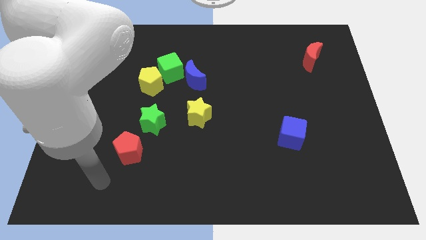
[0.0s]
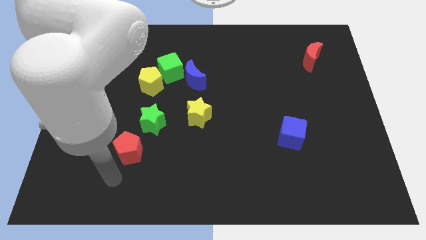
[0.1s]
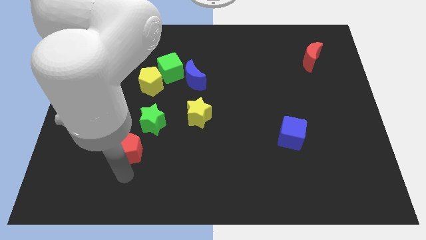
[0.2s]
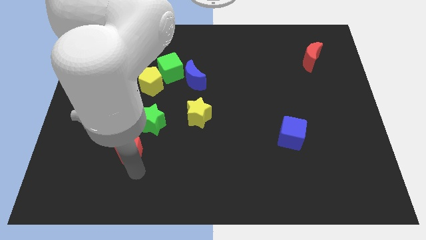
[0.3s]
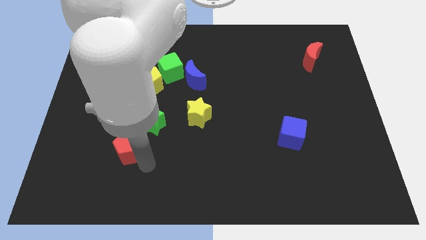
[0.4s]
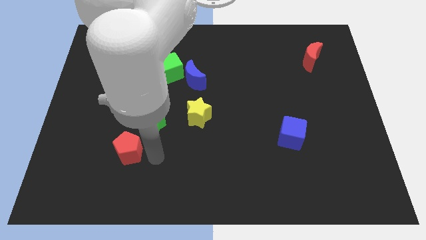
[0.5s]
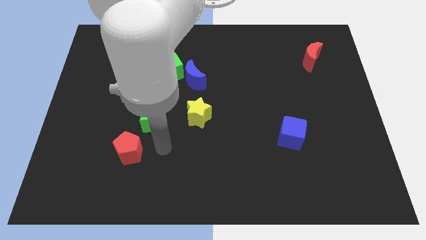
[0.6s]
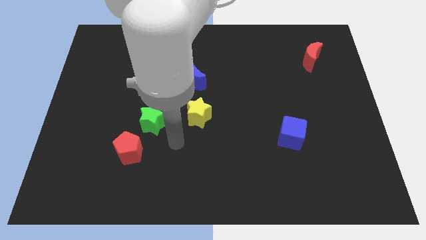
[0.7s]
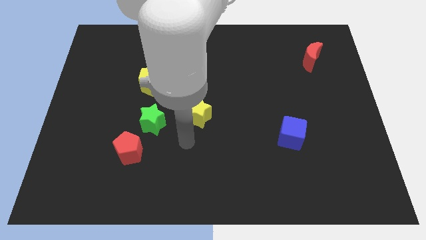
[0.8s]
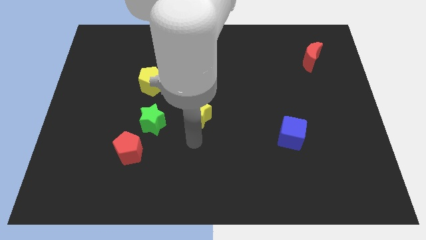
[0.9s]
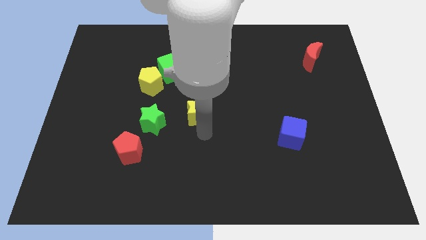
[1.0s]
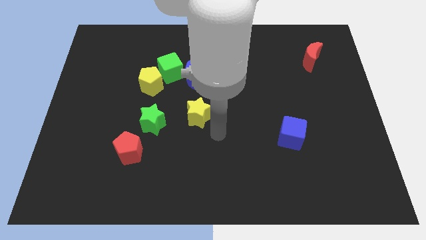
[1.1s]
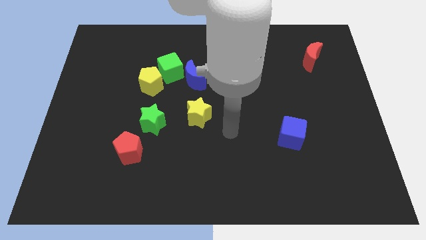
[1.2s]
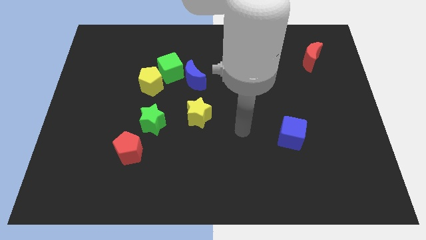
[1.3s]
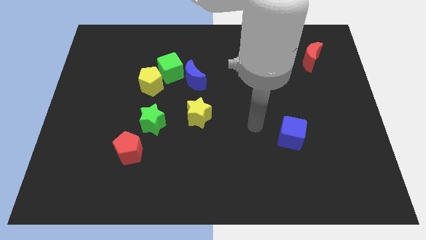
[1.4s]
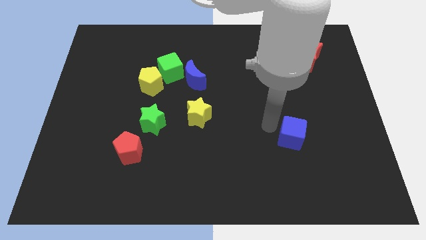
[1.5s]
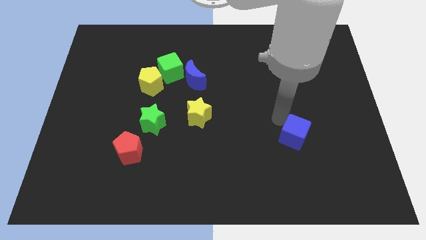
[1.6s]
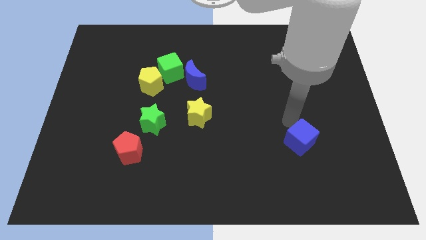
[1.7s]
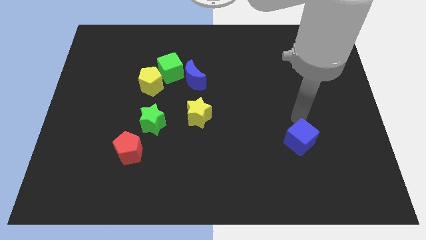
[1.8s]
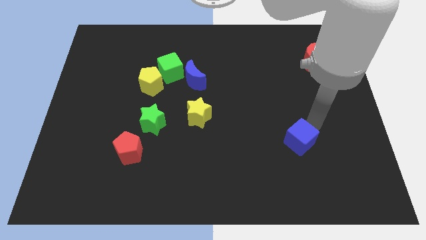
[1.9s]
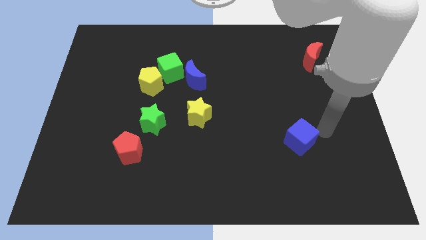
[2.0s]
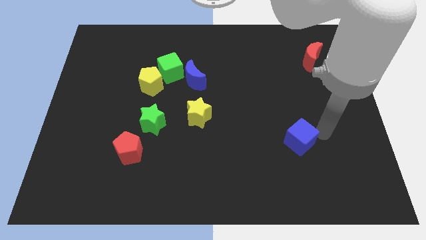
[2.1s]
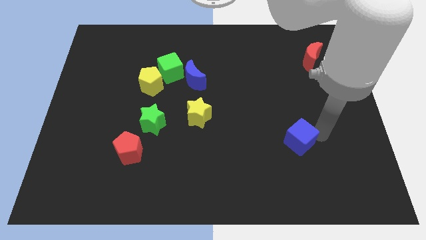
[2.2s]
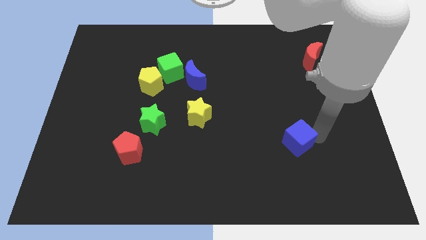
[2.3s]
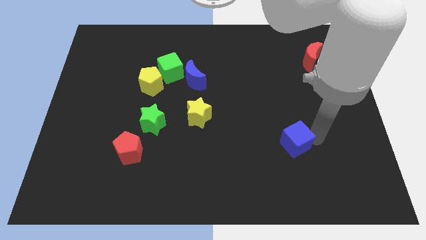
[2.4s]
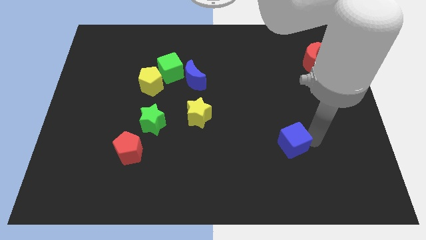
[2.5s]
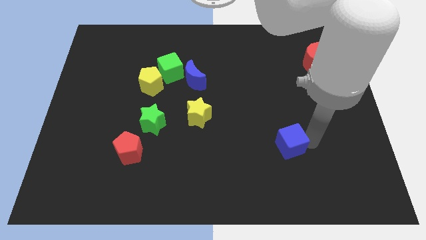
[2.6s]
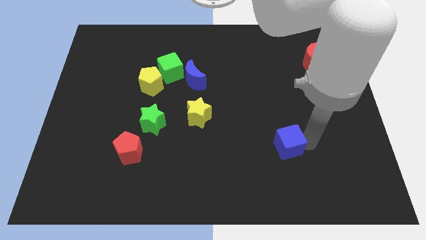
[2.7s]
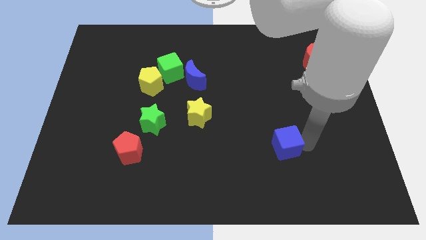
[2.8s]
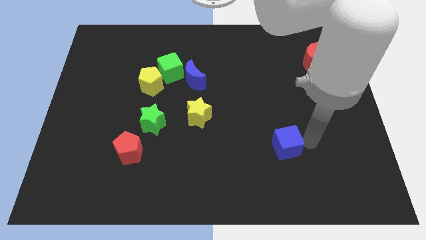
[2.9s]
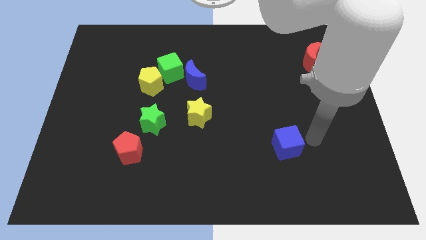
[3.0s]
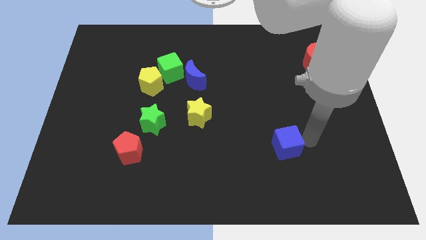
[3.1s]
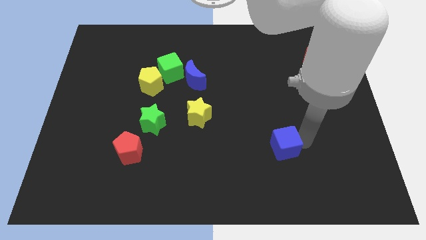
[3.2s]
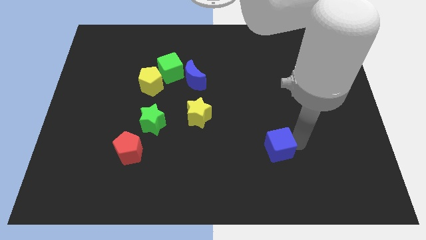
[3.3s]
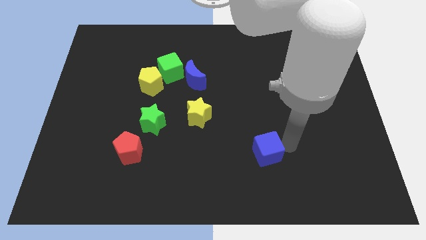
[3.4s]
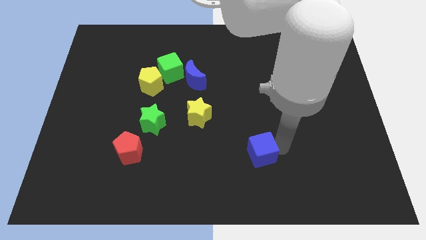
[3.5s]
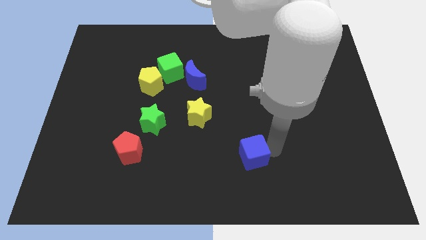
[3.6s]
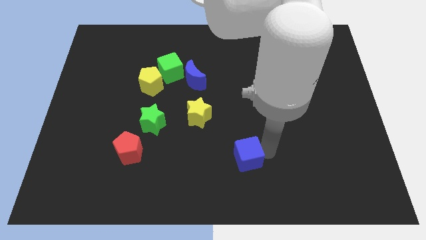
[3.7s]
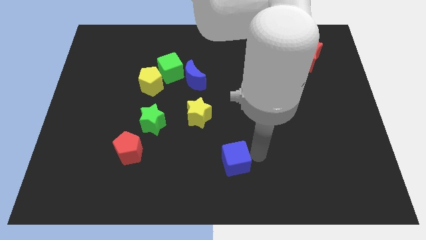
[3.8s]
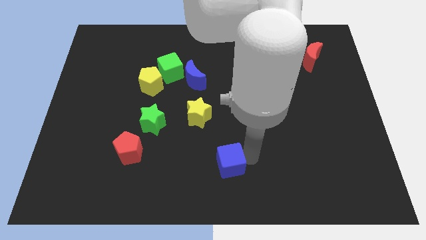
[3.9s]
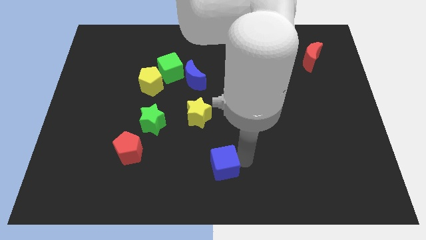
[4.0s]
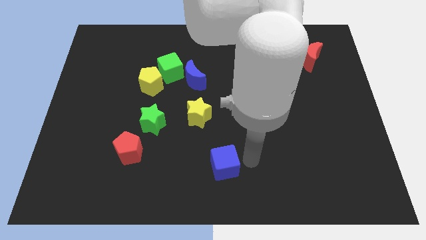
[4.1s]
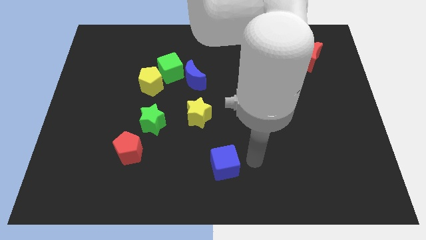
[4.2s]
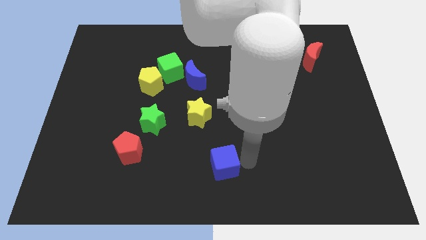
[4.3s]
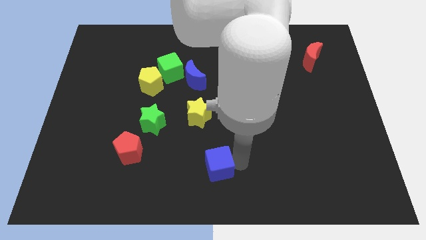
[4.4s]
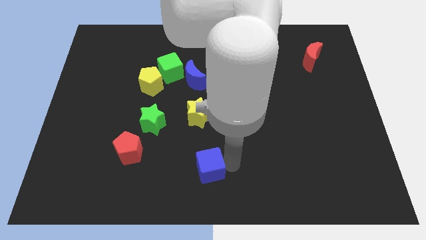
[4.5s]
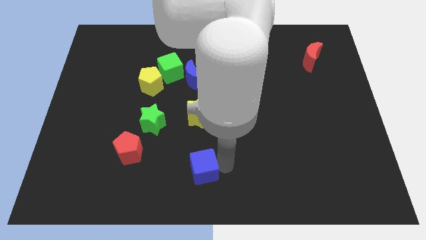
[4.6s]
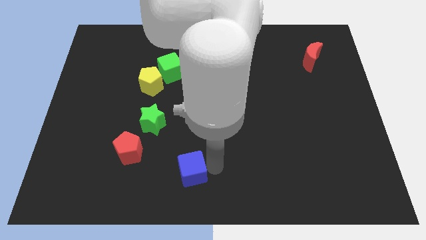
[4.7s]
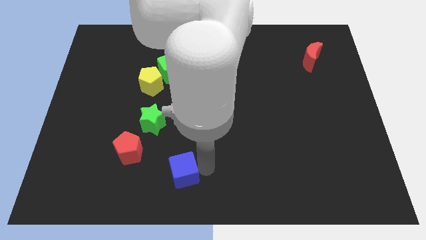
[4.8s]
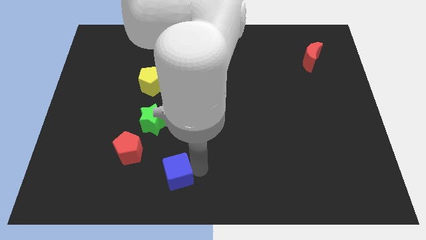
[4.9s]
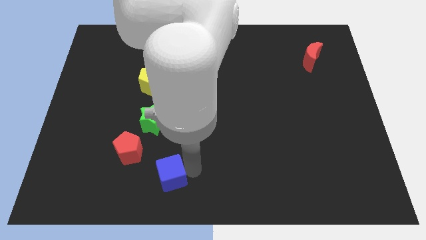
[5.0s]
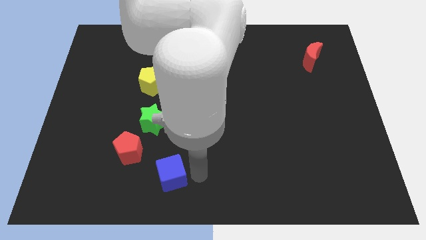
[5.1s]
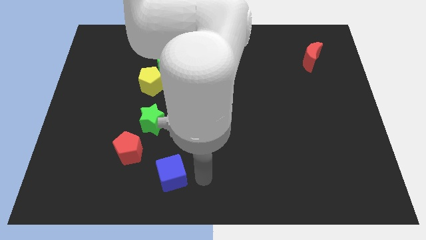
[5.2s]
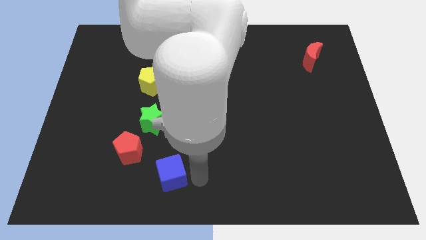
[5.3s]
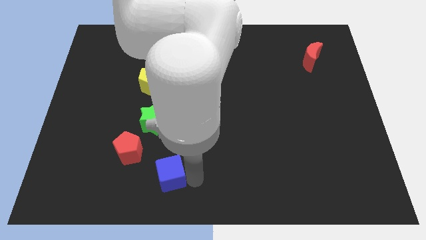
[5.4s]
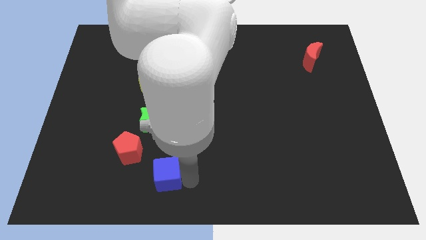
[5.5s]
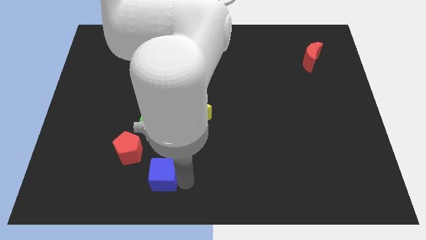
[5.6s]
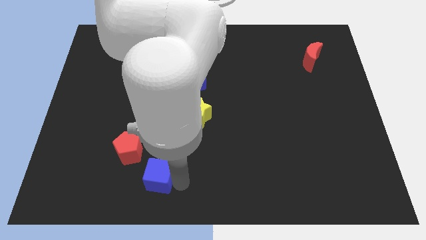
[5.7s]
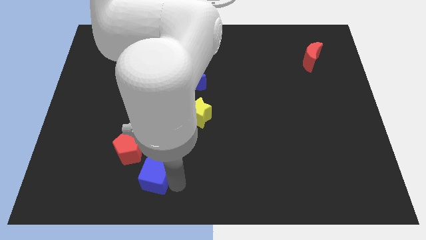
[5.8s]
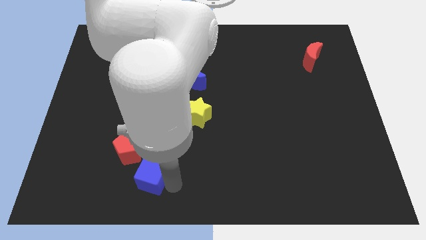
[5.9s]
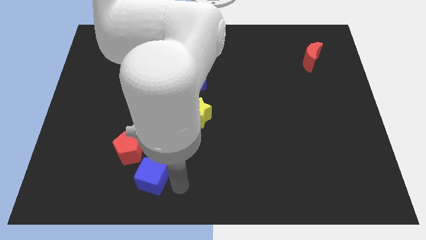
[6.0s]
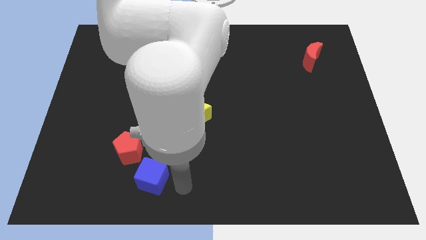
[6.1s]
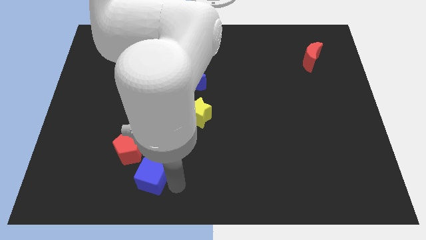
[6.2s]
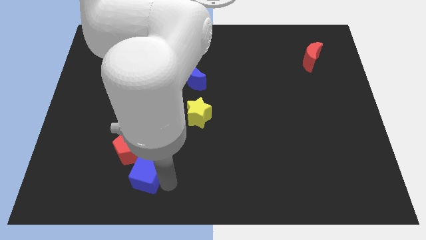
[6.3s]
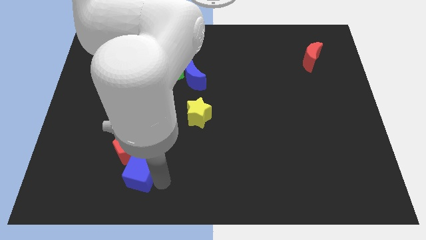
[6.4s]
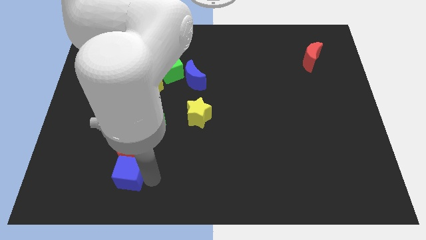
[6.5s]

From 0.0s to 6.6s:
put the blue cube diagonally down and to the left of the red pentagon
